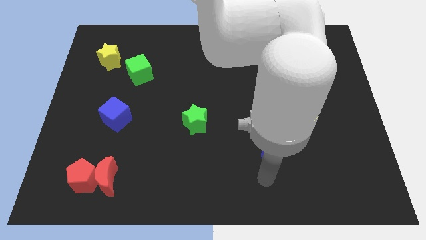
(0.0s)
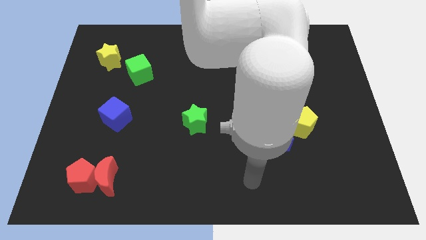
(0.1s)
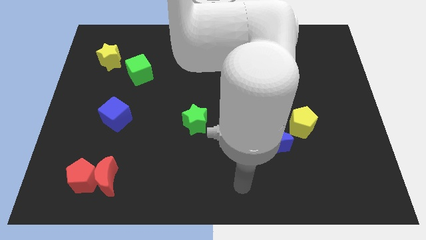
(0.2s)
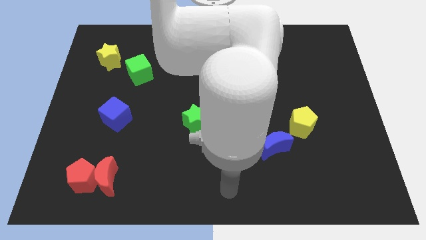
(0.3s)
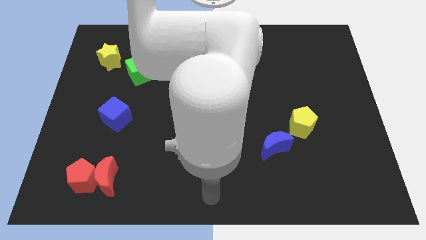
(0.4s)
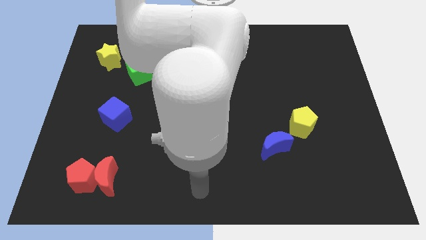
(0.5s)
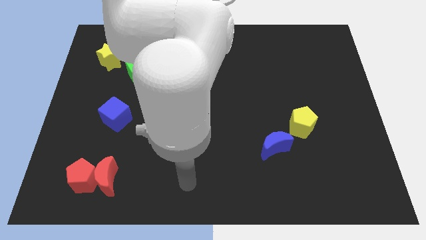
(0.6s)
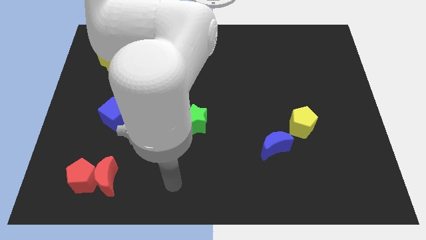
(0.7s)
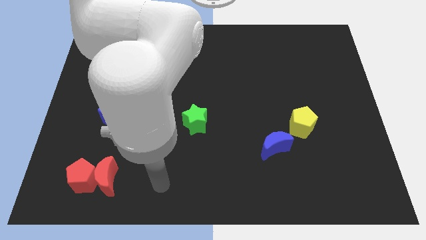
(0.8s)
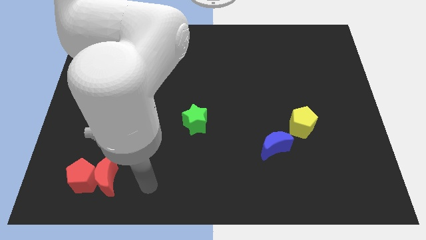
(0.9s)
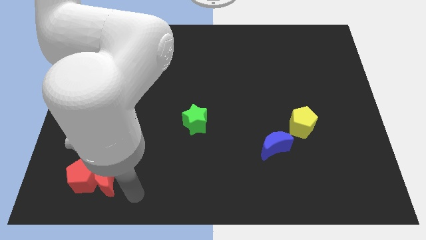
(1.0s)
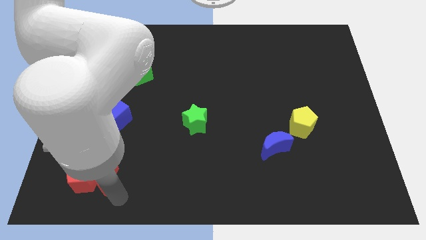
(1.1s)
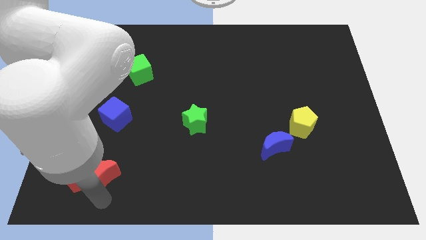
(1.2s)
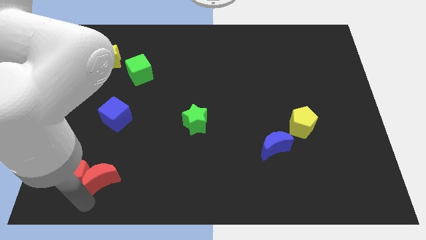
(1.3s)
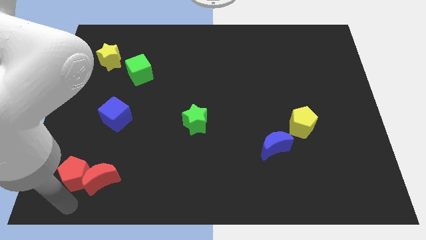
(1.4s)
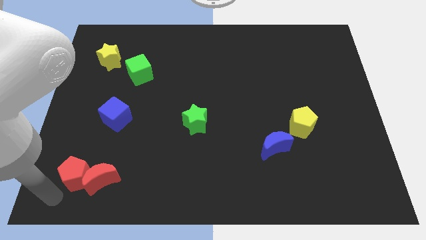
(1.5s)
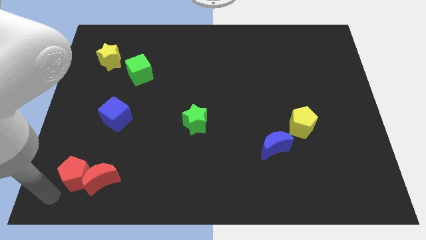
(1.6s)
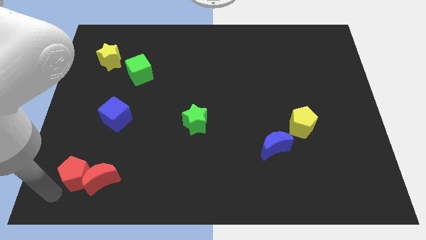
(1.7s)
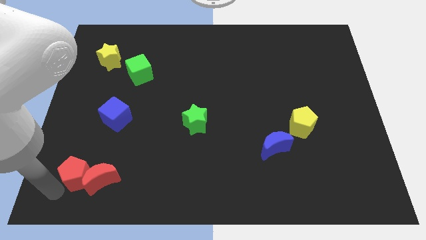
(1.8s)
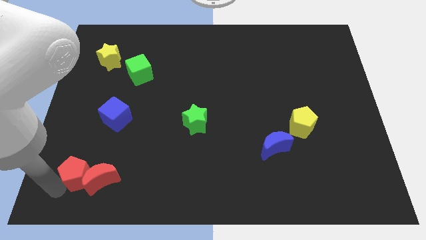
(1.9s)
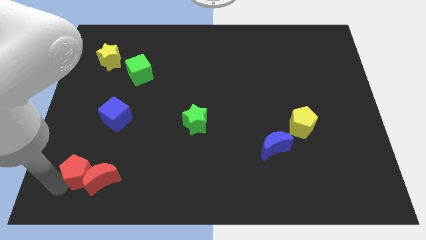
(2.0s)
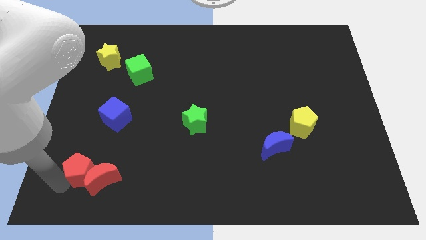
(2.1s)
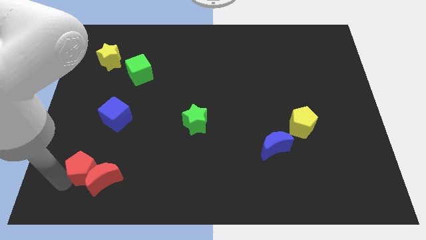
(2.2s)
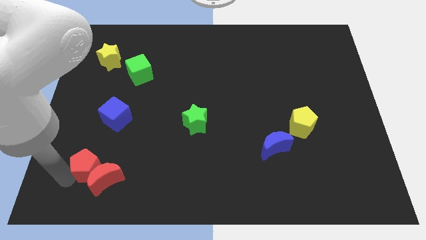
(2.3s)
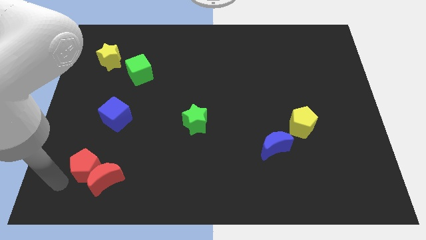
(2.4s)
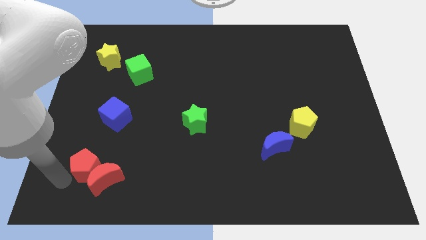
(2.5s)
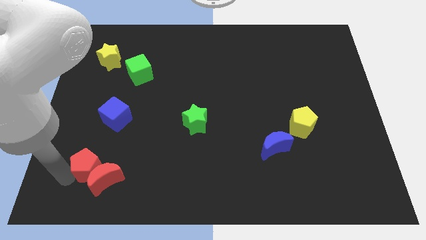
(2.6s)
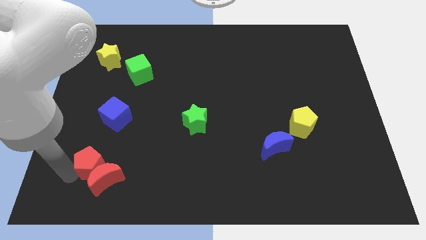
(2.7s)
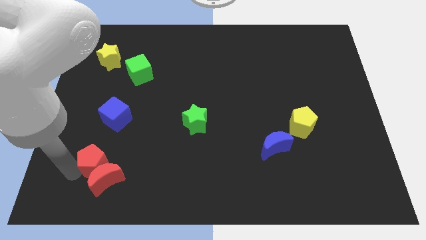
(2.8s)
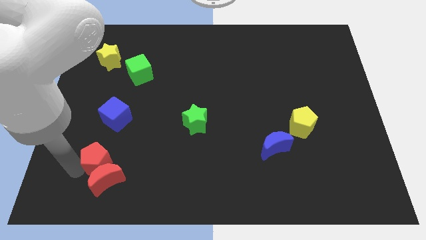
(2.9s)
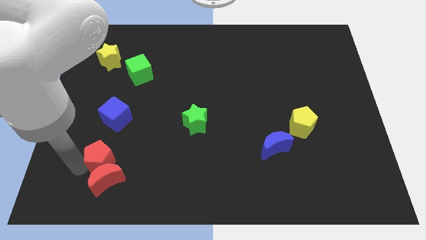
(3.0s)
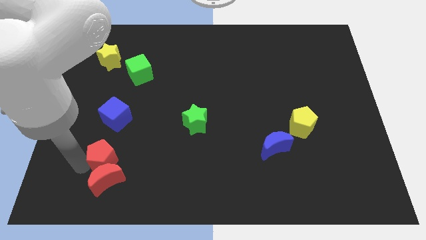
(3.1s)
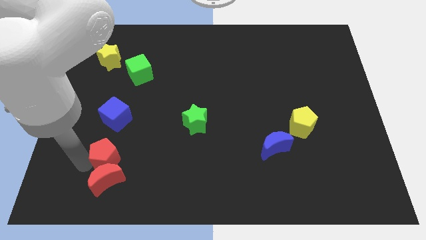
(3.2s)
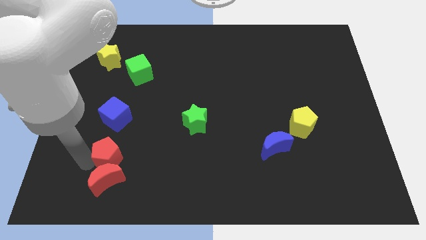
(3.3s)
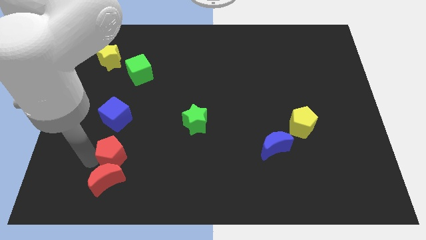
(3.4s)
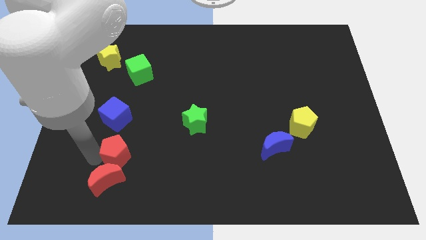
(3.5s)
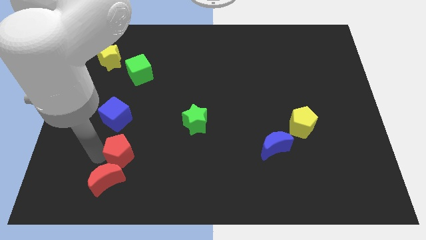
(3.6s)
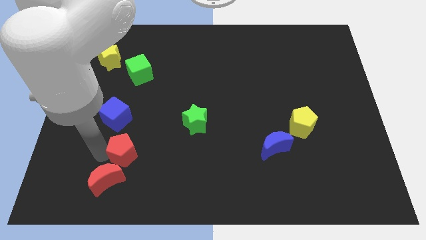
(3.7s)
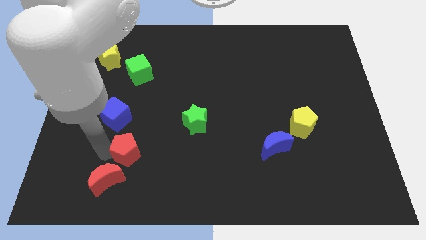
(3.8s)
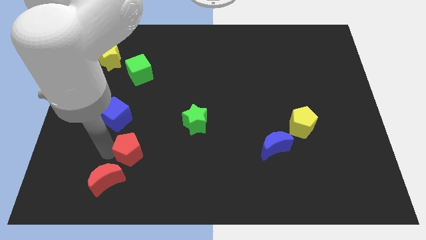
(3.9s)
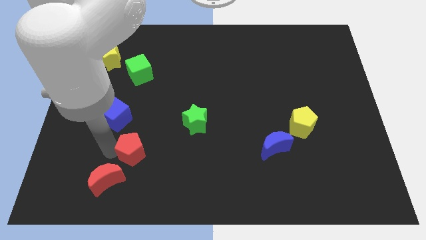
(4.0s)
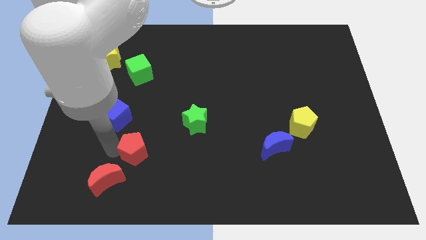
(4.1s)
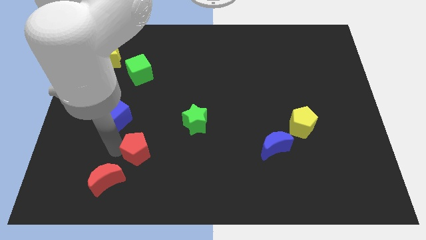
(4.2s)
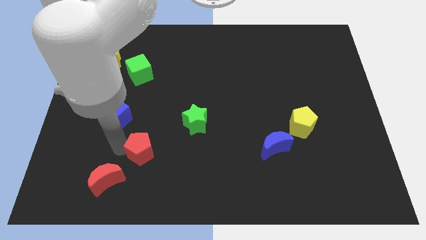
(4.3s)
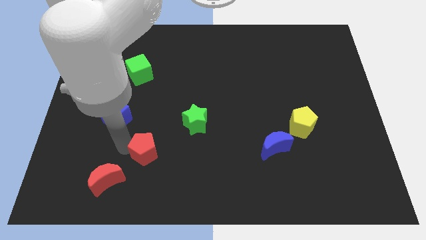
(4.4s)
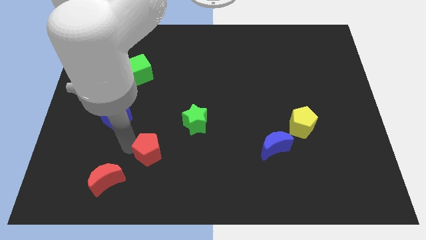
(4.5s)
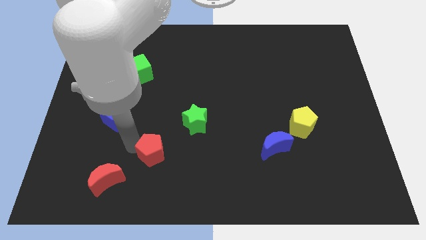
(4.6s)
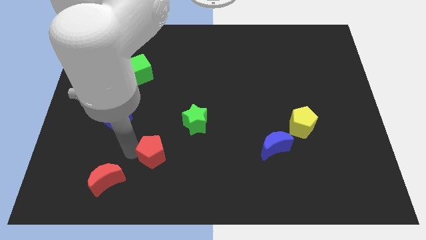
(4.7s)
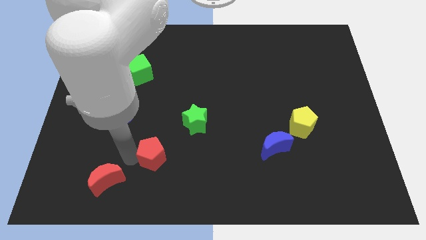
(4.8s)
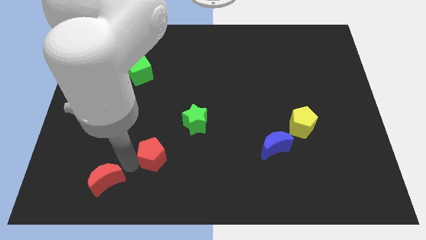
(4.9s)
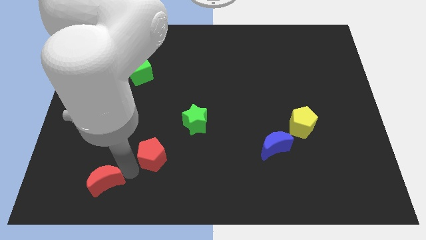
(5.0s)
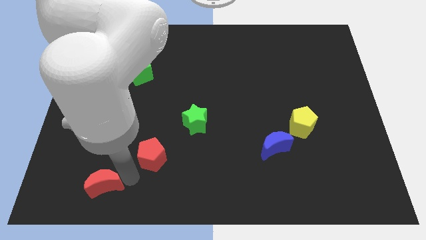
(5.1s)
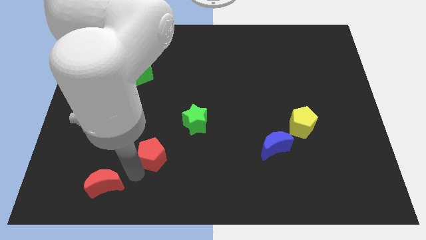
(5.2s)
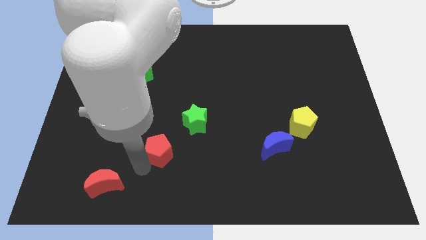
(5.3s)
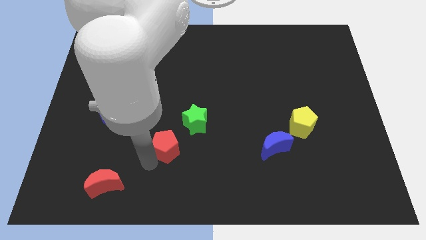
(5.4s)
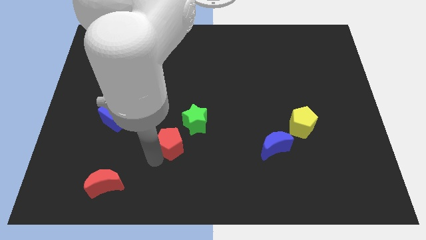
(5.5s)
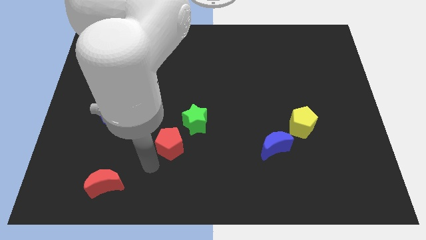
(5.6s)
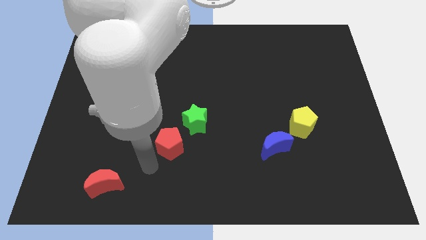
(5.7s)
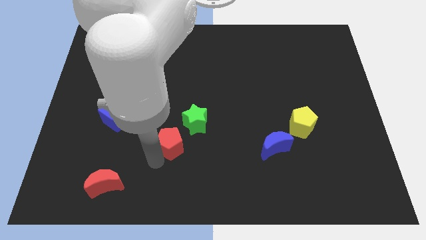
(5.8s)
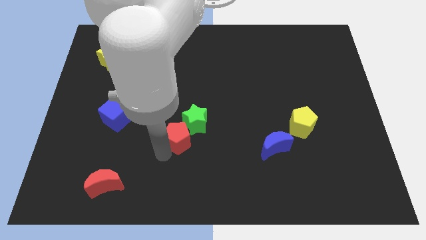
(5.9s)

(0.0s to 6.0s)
slide the red pentagon towards the green star
